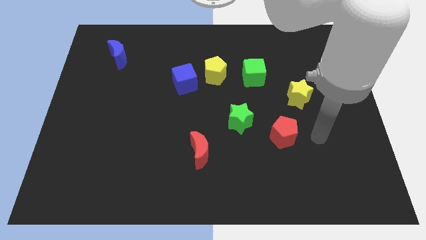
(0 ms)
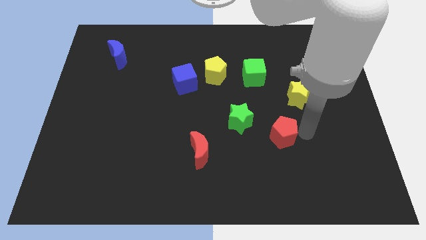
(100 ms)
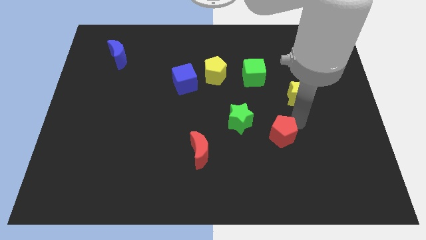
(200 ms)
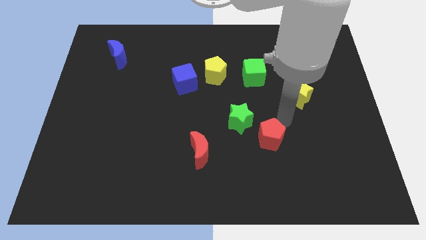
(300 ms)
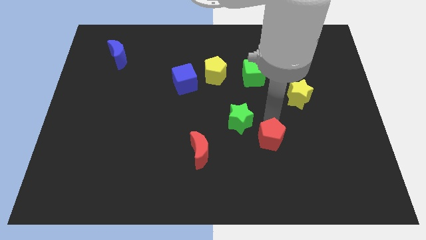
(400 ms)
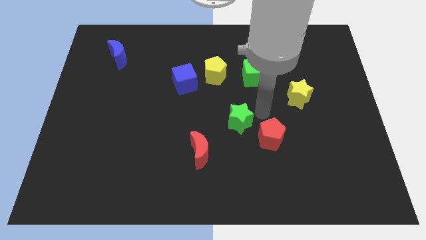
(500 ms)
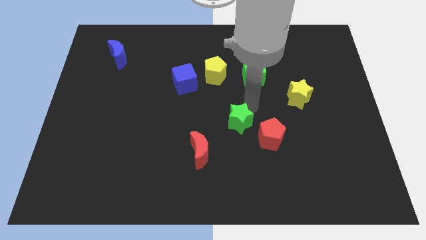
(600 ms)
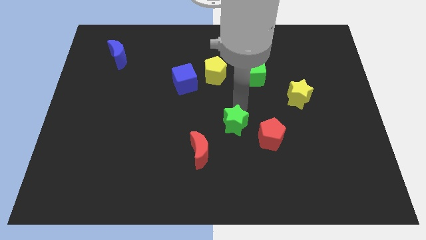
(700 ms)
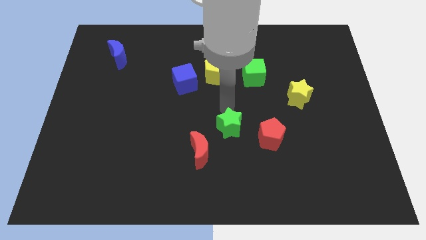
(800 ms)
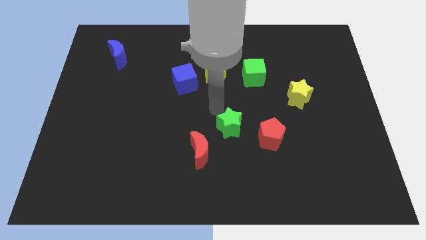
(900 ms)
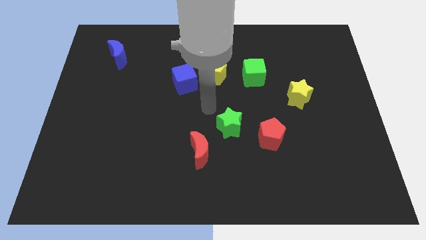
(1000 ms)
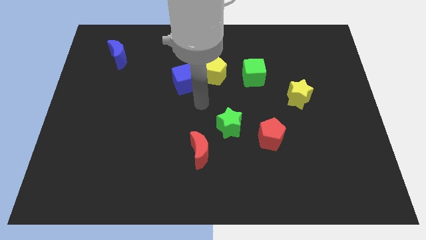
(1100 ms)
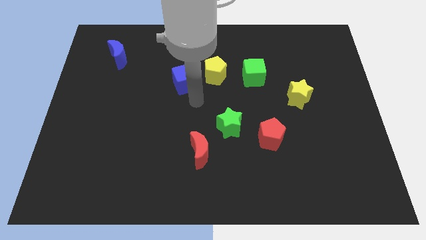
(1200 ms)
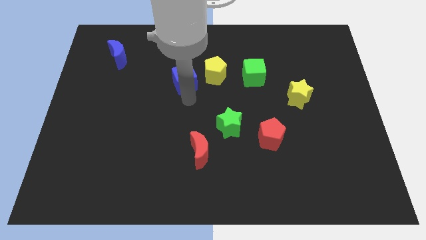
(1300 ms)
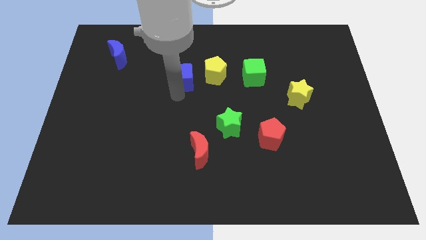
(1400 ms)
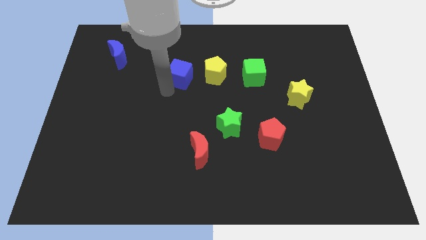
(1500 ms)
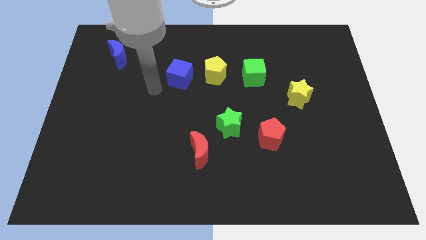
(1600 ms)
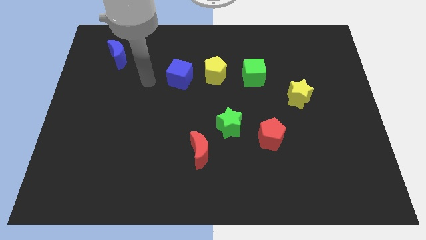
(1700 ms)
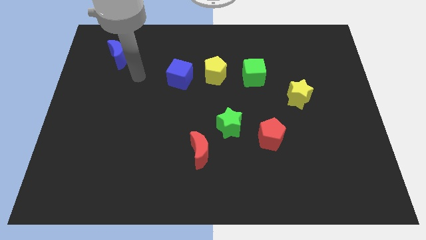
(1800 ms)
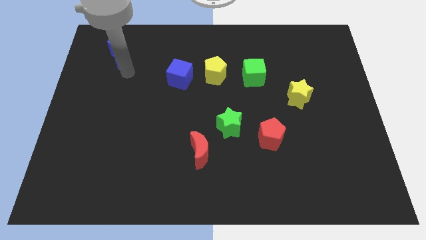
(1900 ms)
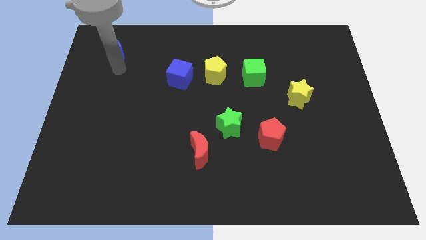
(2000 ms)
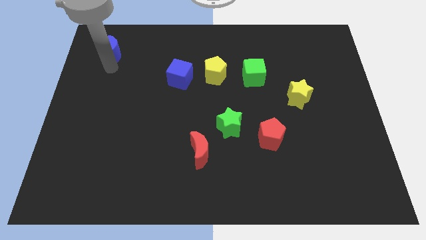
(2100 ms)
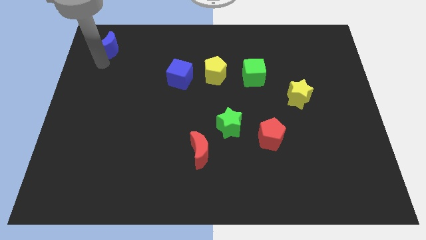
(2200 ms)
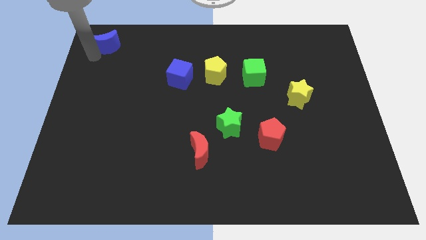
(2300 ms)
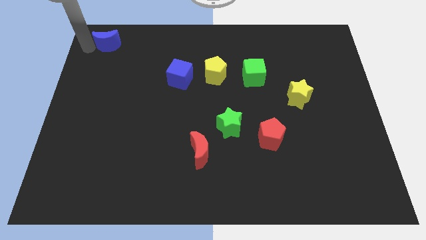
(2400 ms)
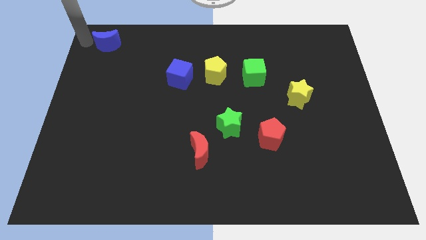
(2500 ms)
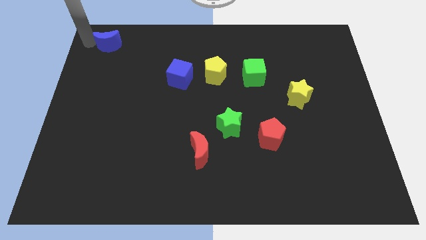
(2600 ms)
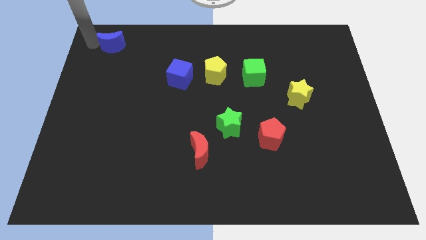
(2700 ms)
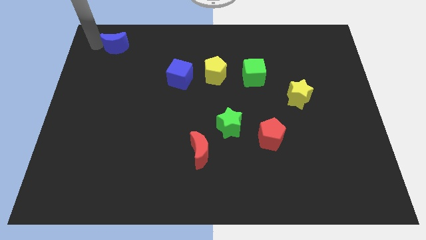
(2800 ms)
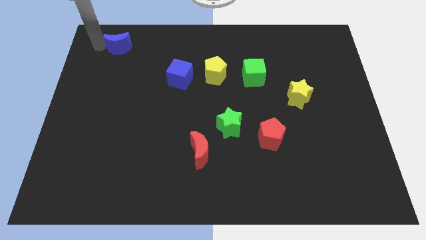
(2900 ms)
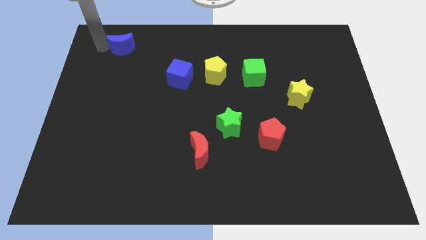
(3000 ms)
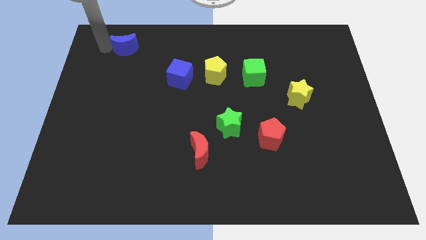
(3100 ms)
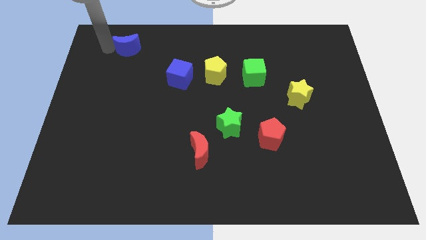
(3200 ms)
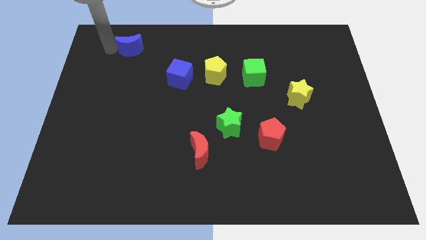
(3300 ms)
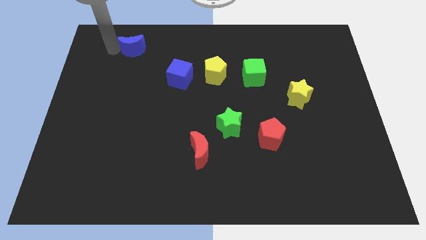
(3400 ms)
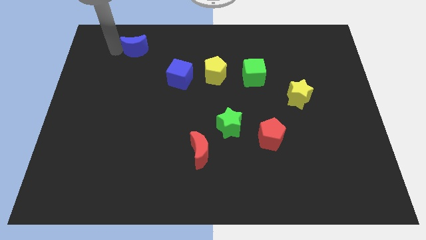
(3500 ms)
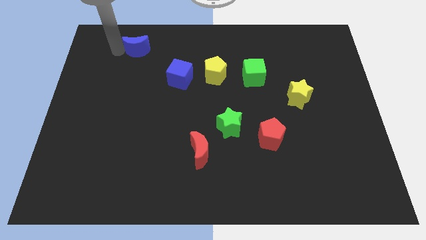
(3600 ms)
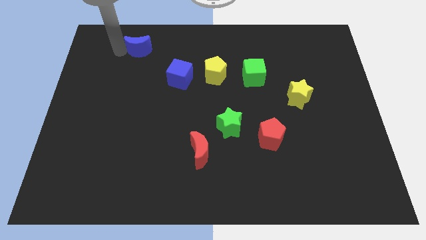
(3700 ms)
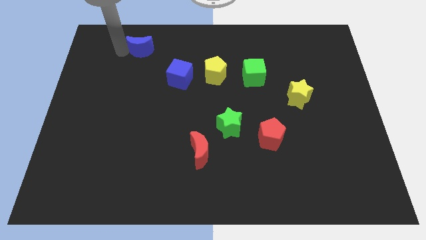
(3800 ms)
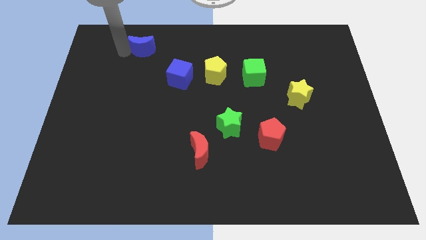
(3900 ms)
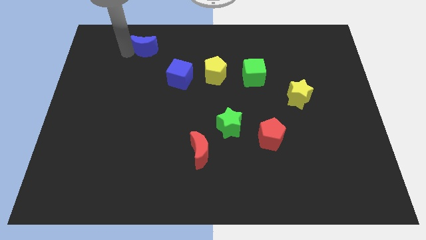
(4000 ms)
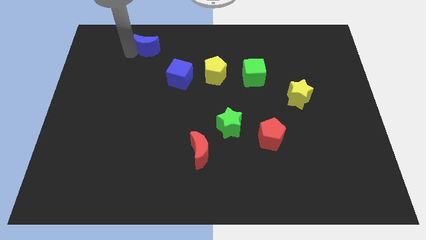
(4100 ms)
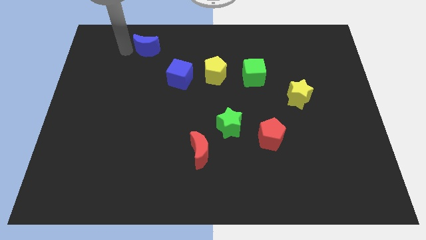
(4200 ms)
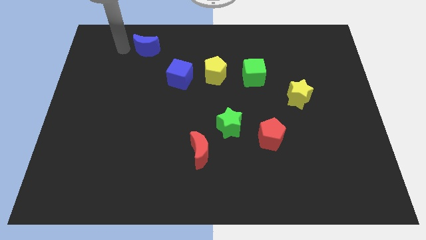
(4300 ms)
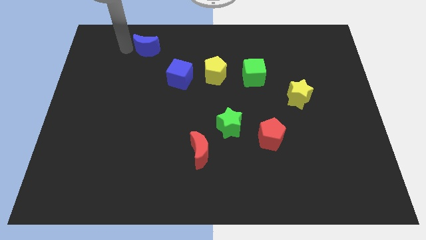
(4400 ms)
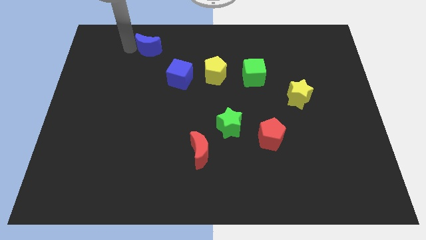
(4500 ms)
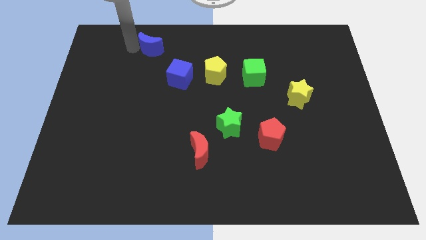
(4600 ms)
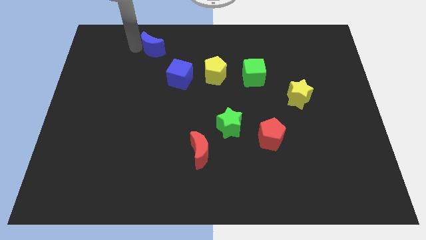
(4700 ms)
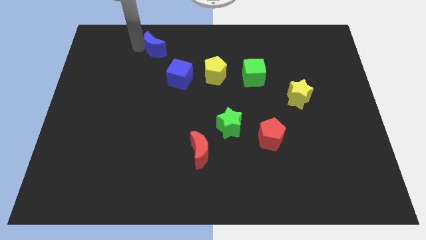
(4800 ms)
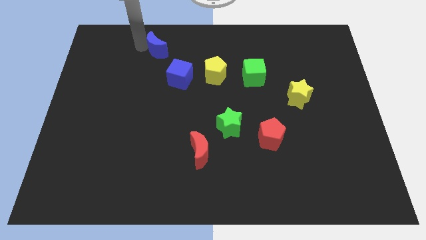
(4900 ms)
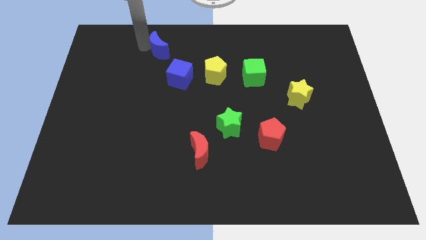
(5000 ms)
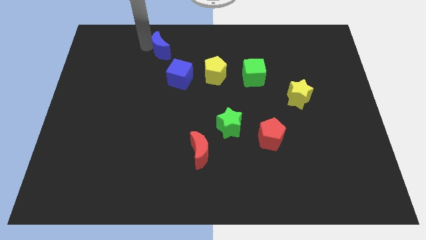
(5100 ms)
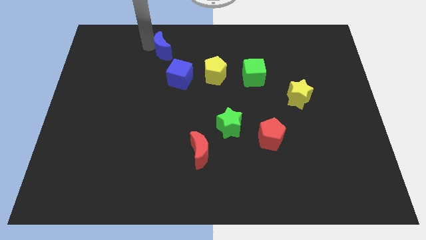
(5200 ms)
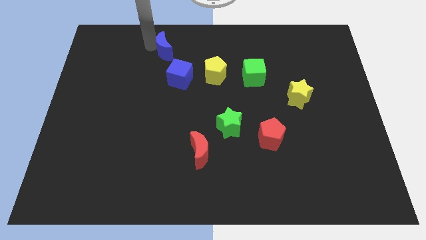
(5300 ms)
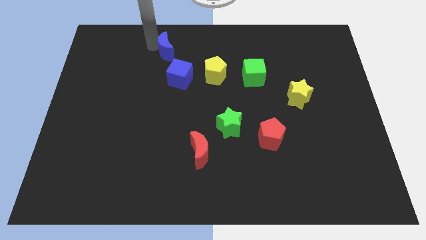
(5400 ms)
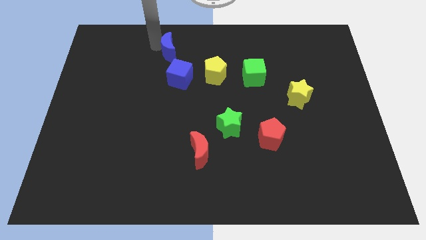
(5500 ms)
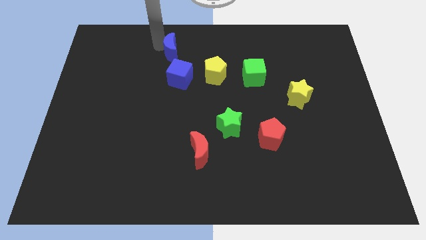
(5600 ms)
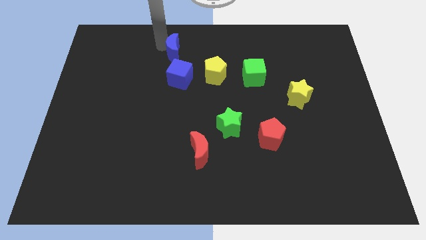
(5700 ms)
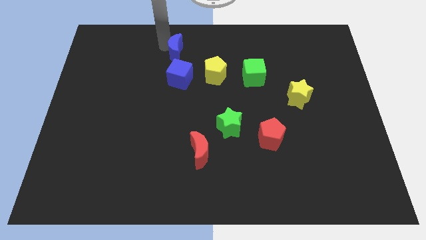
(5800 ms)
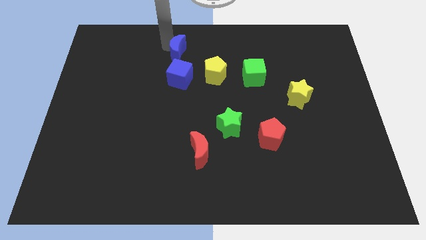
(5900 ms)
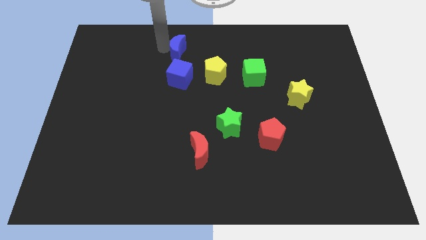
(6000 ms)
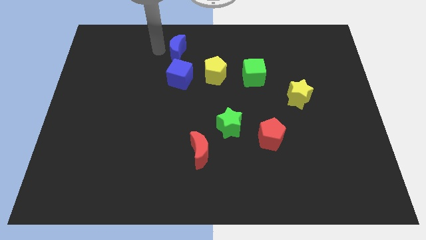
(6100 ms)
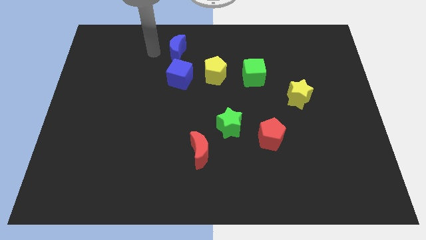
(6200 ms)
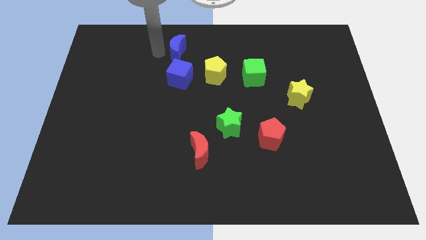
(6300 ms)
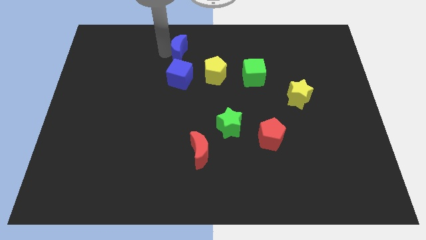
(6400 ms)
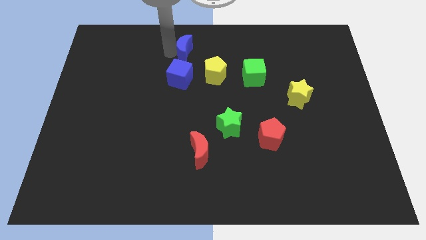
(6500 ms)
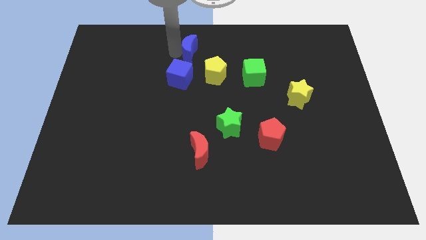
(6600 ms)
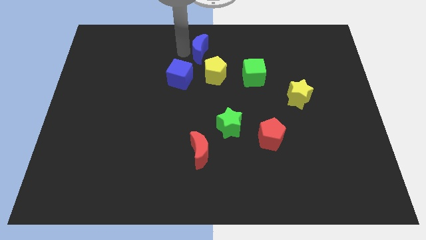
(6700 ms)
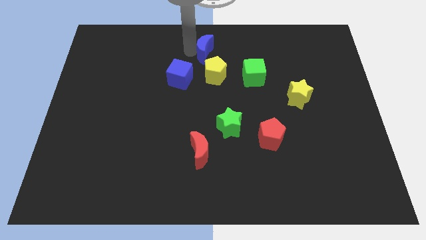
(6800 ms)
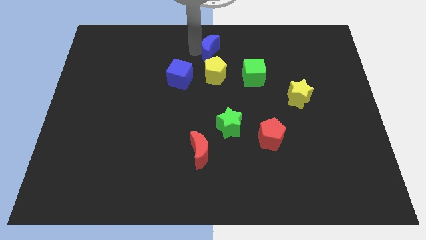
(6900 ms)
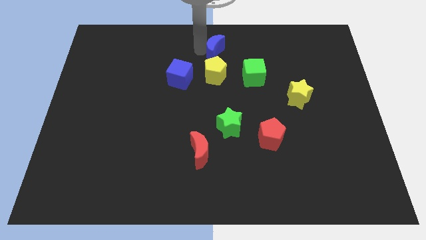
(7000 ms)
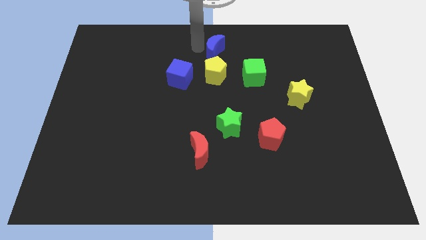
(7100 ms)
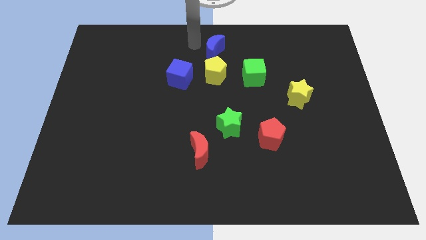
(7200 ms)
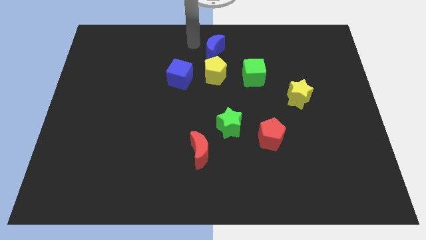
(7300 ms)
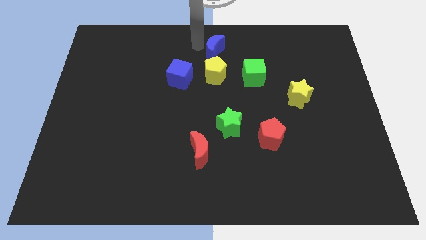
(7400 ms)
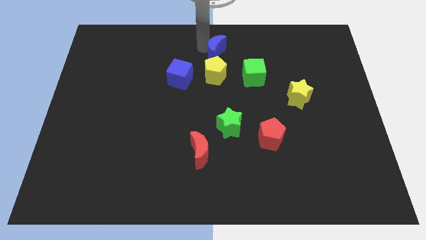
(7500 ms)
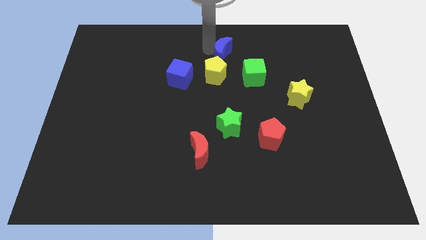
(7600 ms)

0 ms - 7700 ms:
slide the blue moon to the top right side of the yellow pentagon
